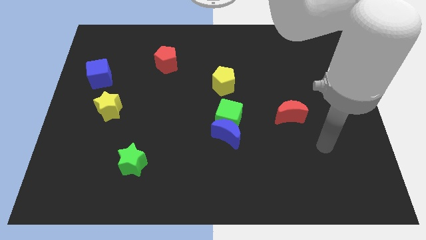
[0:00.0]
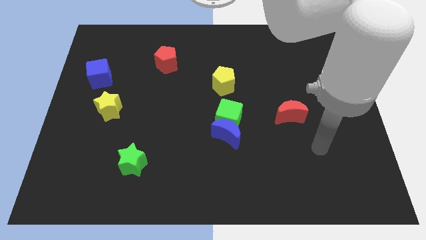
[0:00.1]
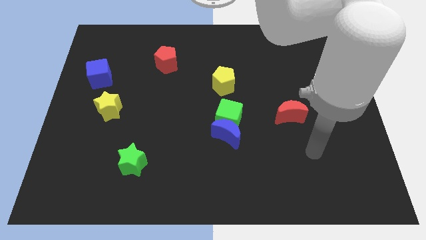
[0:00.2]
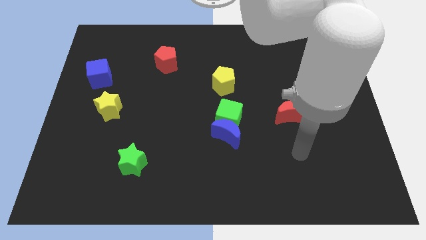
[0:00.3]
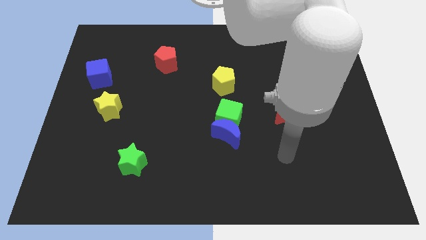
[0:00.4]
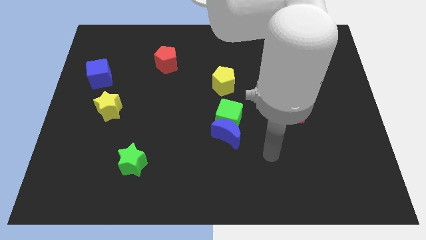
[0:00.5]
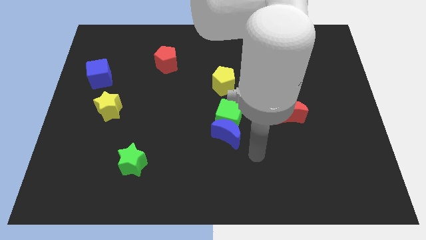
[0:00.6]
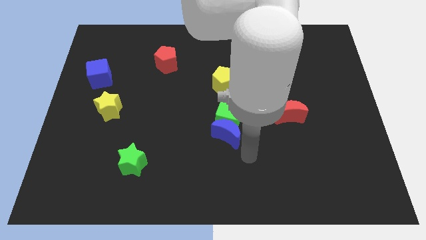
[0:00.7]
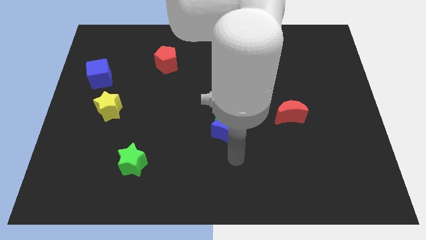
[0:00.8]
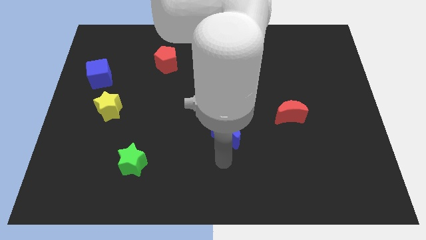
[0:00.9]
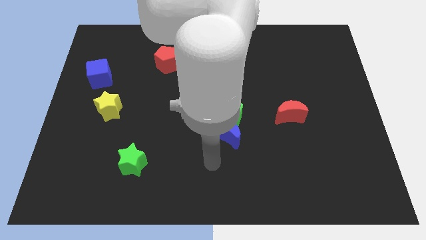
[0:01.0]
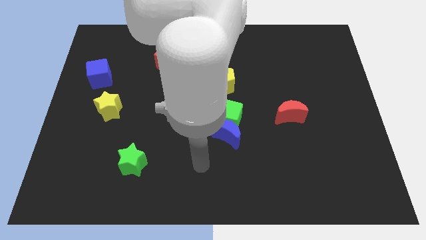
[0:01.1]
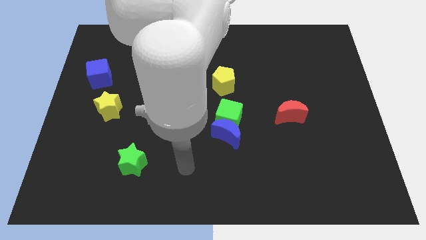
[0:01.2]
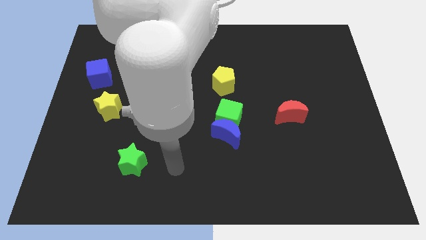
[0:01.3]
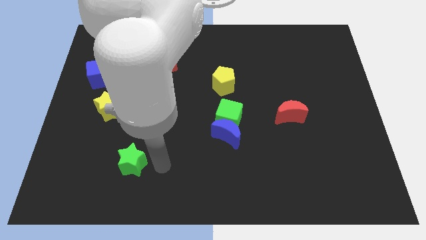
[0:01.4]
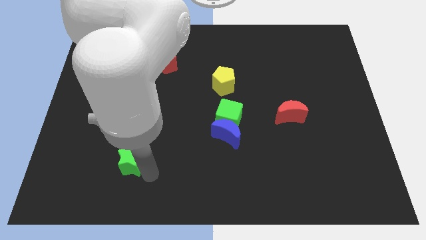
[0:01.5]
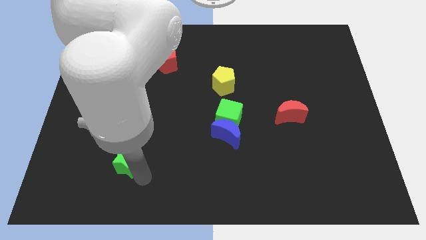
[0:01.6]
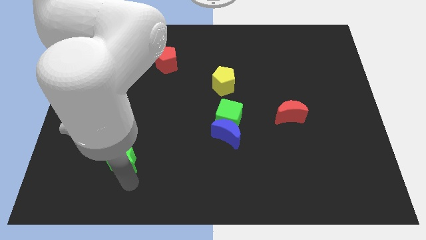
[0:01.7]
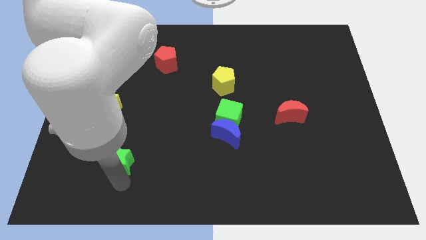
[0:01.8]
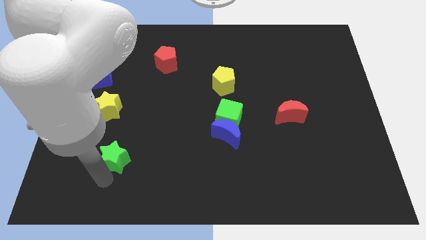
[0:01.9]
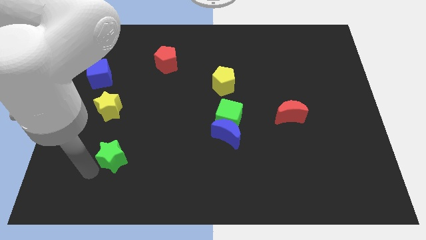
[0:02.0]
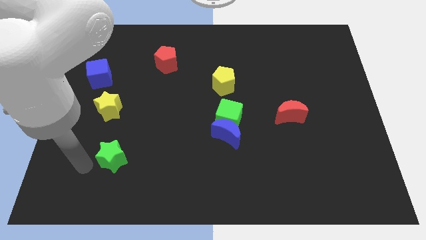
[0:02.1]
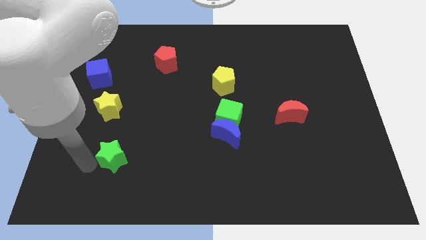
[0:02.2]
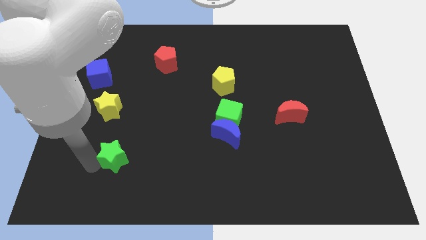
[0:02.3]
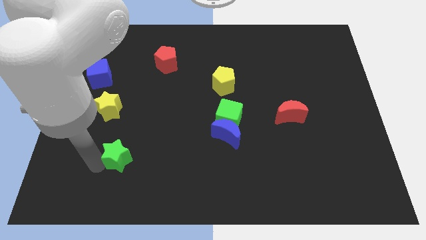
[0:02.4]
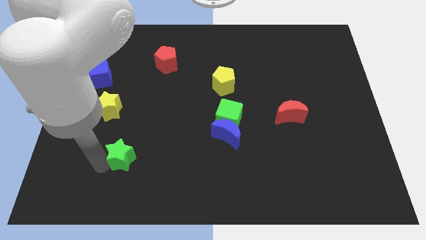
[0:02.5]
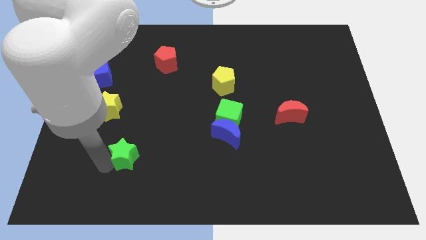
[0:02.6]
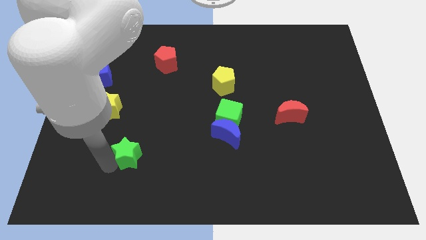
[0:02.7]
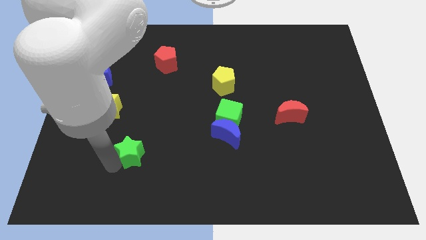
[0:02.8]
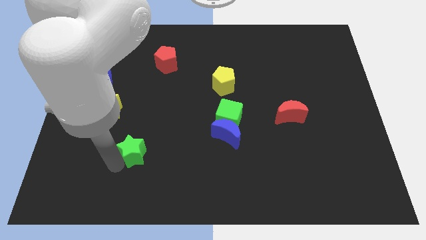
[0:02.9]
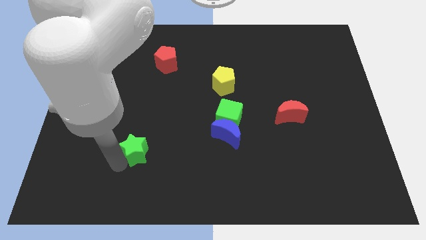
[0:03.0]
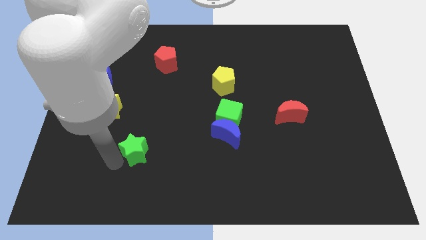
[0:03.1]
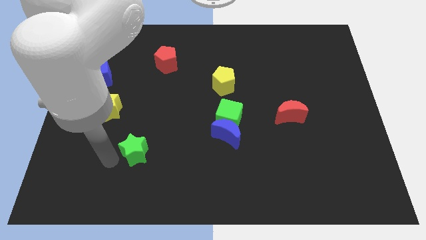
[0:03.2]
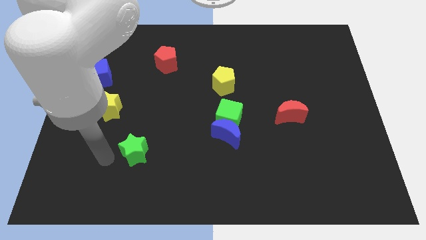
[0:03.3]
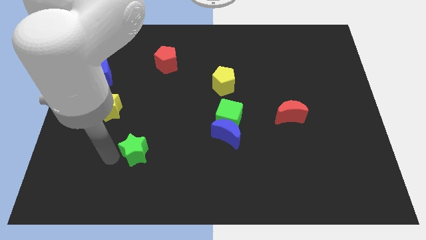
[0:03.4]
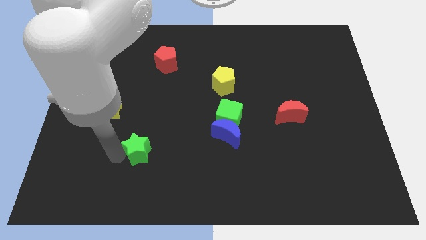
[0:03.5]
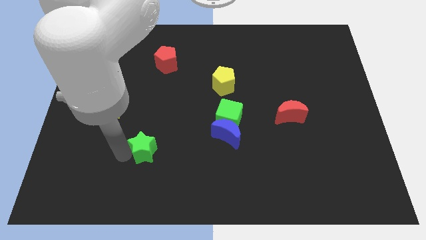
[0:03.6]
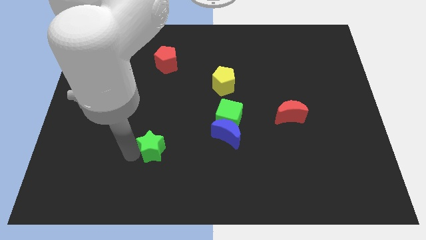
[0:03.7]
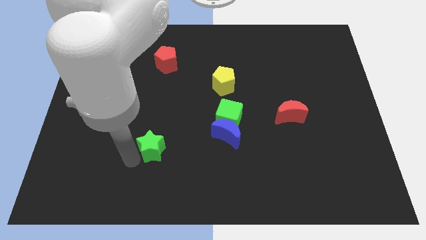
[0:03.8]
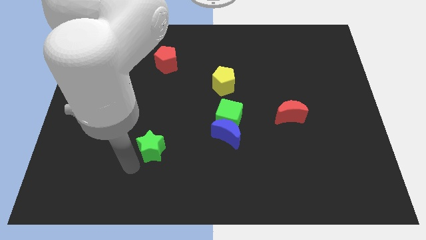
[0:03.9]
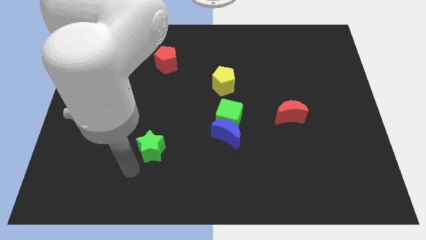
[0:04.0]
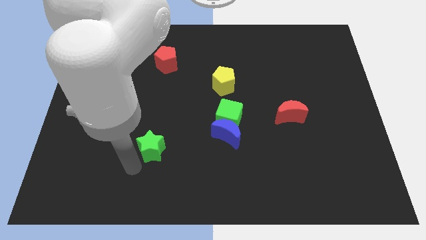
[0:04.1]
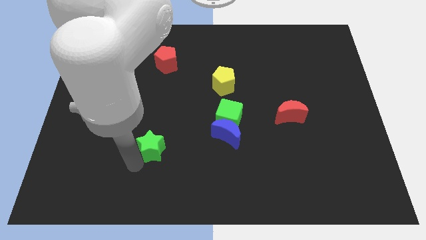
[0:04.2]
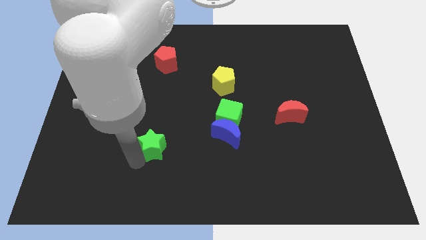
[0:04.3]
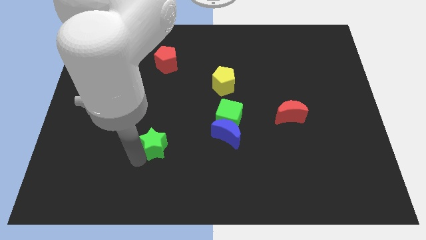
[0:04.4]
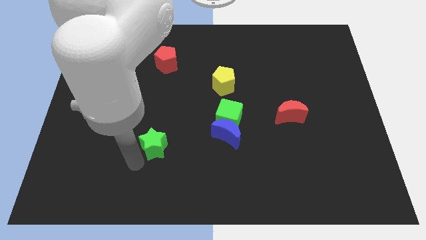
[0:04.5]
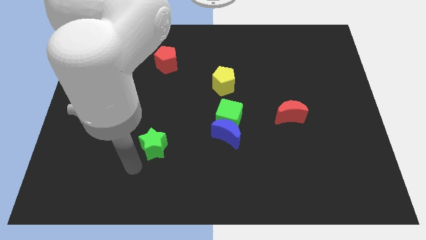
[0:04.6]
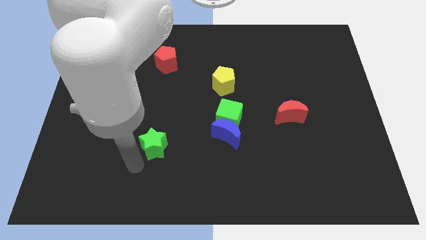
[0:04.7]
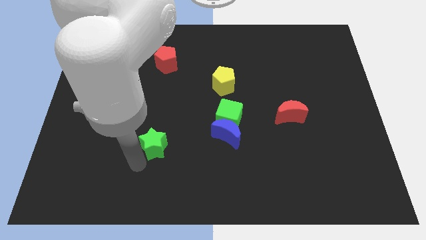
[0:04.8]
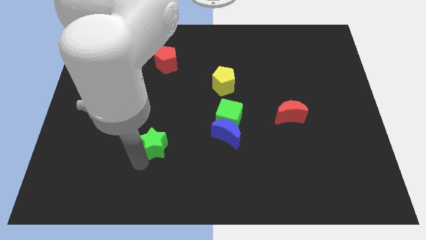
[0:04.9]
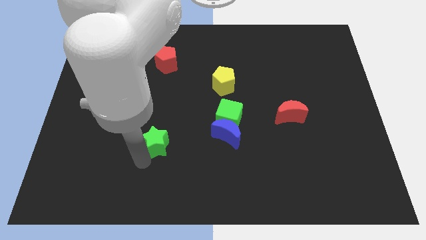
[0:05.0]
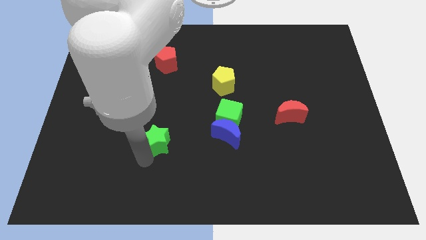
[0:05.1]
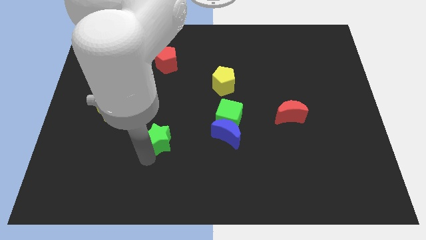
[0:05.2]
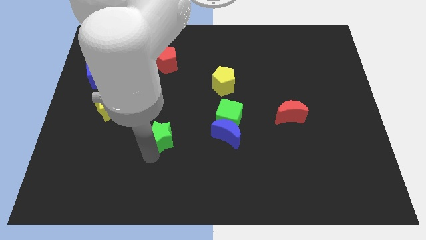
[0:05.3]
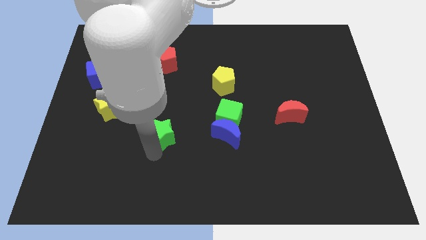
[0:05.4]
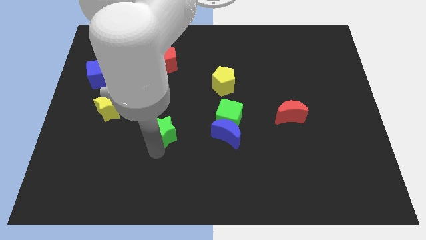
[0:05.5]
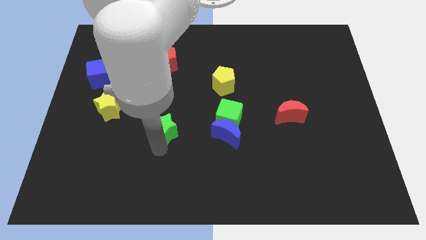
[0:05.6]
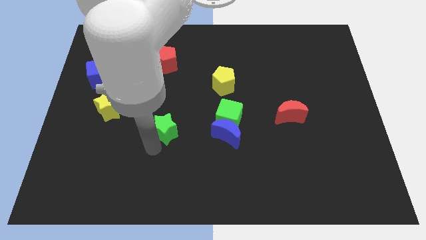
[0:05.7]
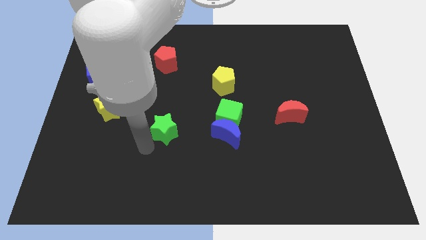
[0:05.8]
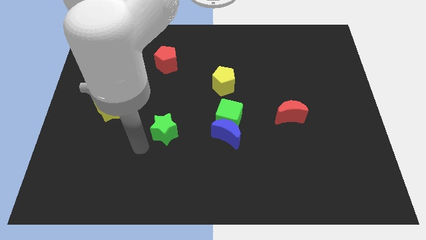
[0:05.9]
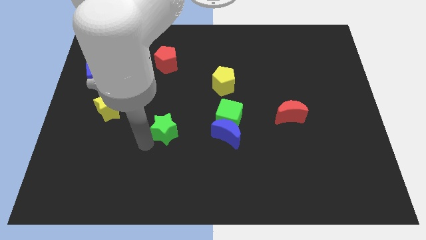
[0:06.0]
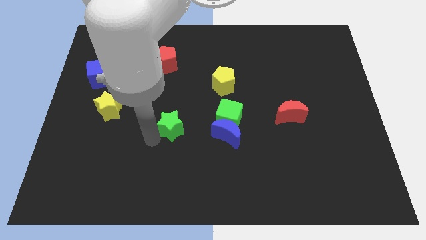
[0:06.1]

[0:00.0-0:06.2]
slide the green star to the middle
